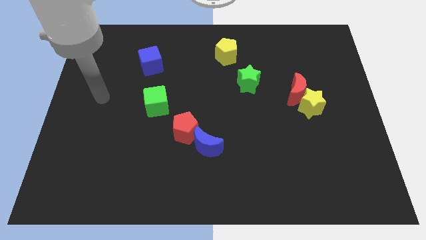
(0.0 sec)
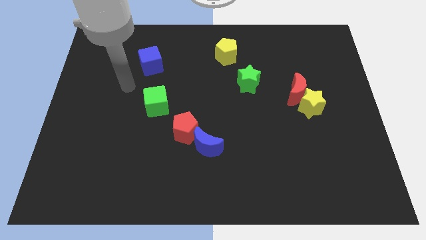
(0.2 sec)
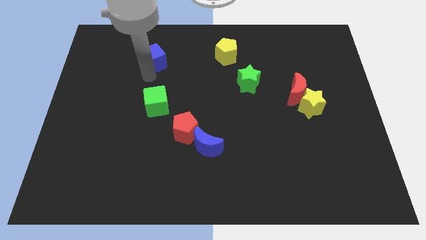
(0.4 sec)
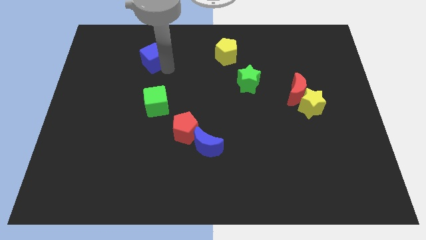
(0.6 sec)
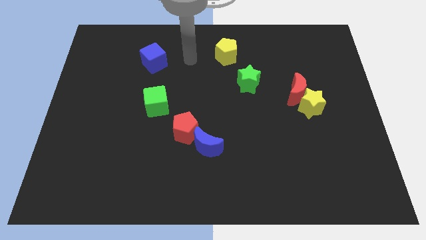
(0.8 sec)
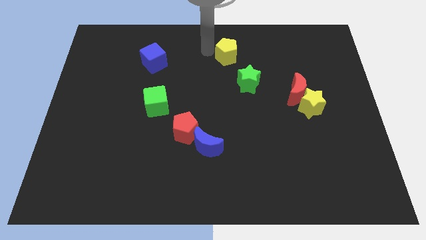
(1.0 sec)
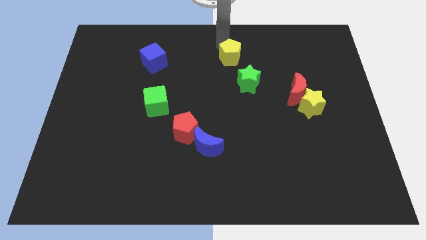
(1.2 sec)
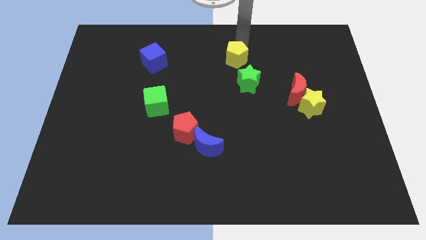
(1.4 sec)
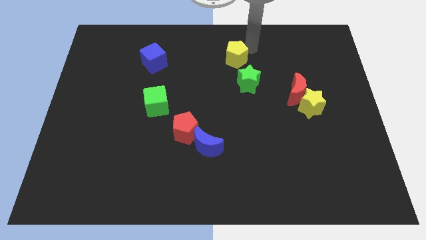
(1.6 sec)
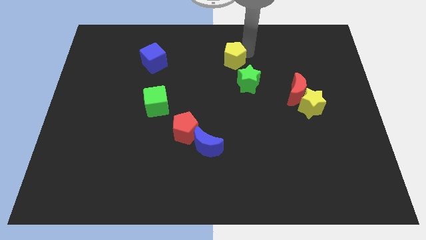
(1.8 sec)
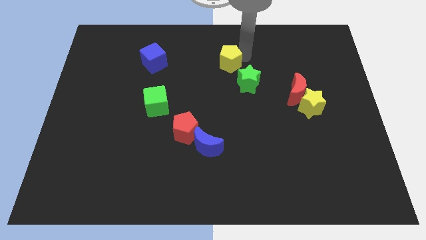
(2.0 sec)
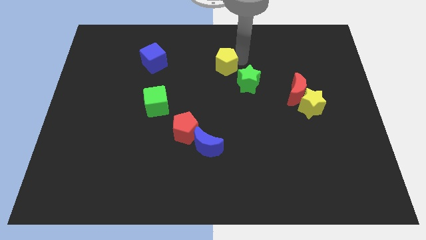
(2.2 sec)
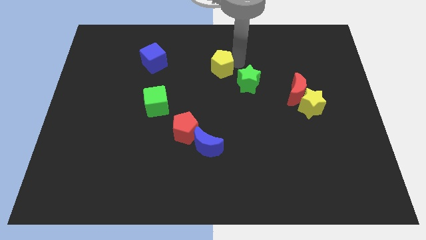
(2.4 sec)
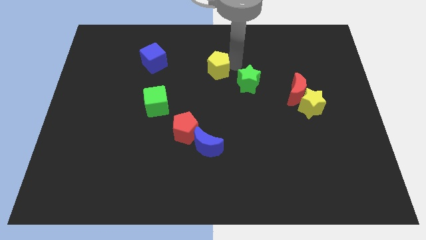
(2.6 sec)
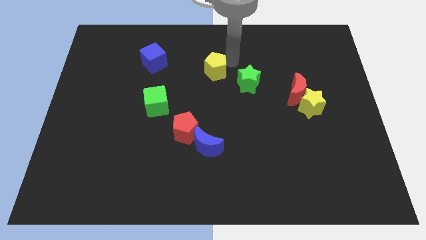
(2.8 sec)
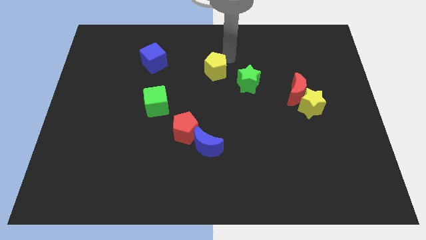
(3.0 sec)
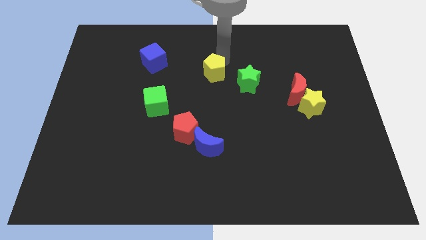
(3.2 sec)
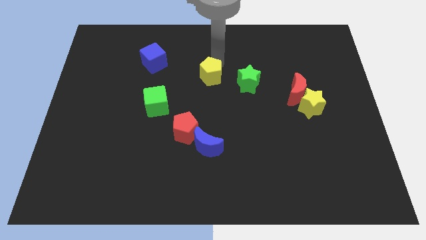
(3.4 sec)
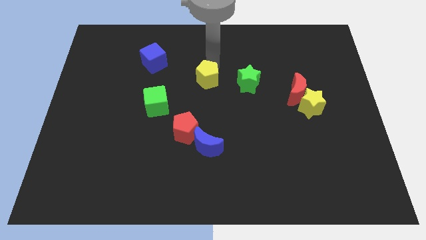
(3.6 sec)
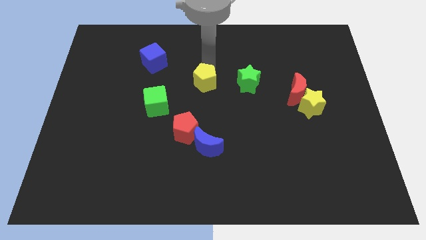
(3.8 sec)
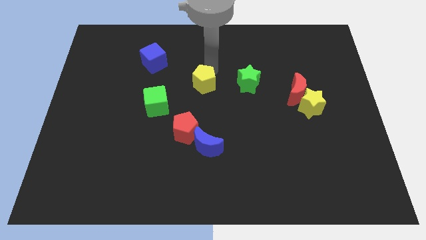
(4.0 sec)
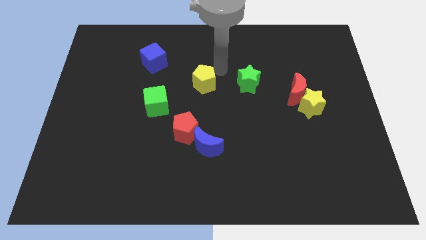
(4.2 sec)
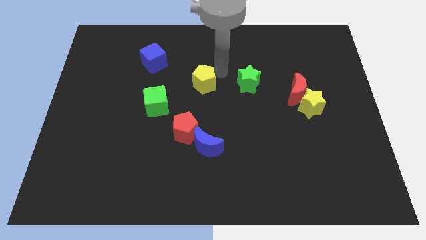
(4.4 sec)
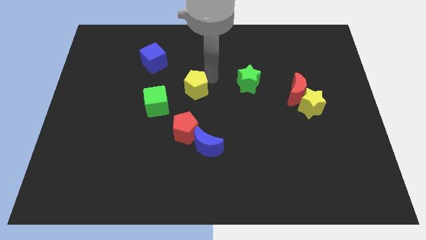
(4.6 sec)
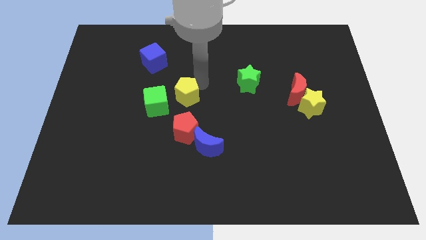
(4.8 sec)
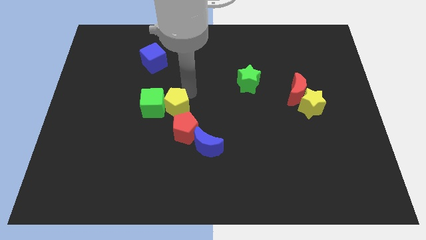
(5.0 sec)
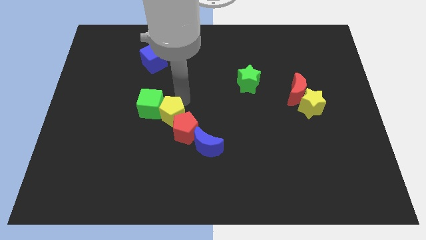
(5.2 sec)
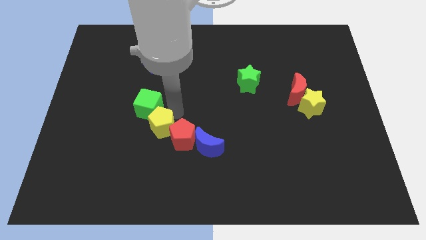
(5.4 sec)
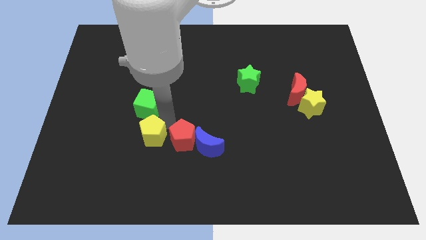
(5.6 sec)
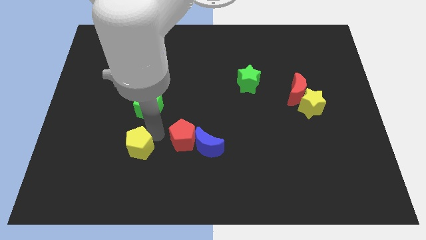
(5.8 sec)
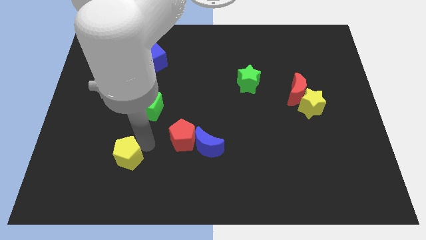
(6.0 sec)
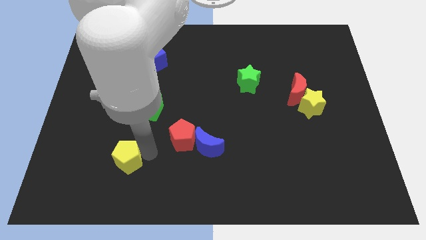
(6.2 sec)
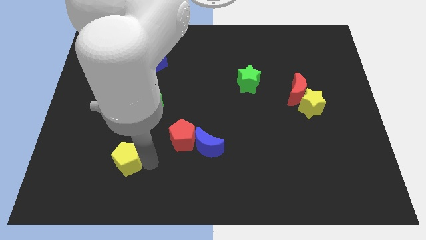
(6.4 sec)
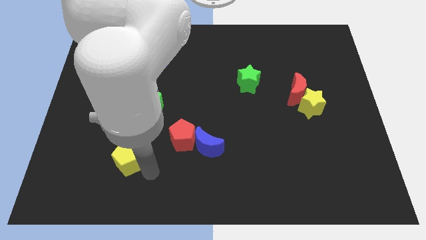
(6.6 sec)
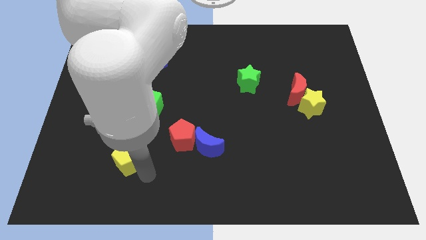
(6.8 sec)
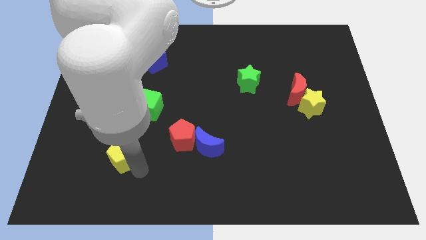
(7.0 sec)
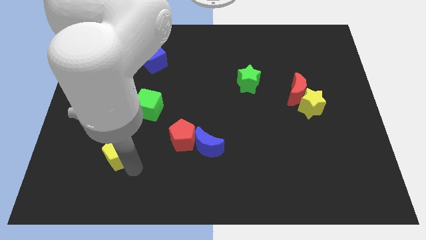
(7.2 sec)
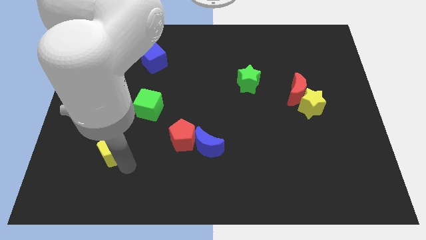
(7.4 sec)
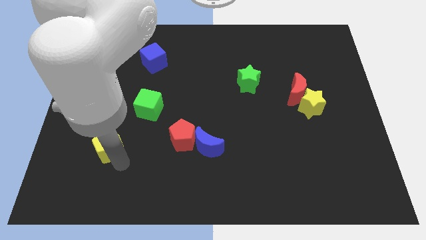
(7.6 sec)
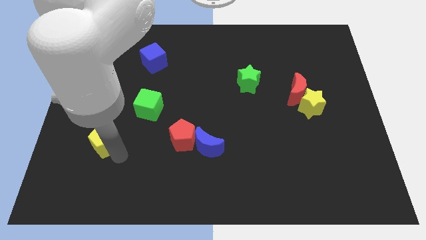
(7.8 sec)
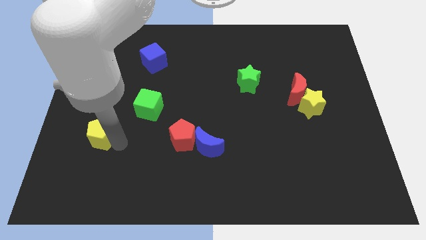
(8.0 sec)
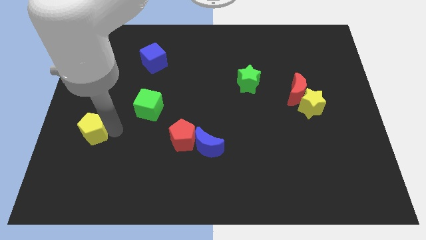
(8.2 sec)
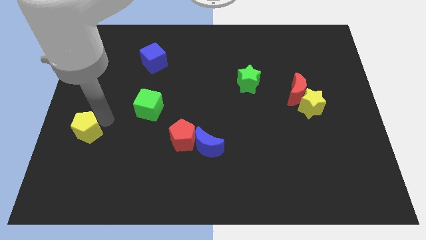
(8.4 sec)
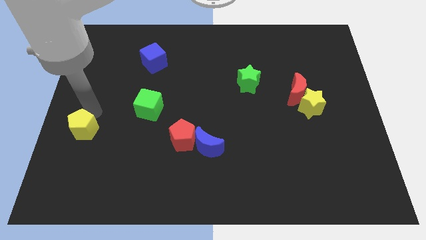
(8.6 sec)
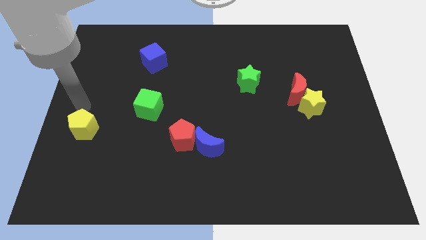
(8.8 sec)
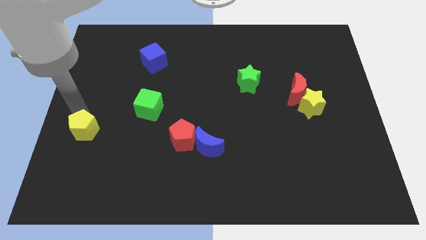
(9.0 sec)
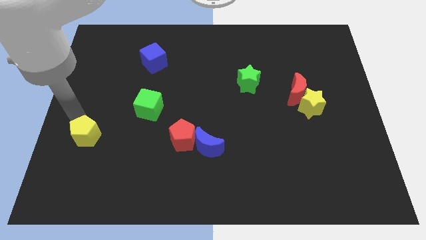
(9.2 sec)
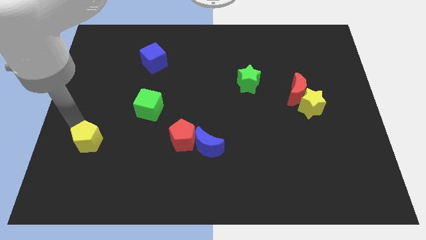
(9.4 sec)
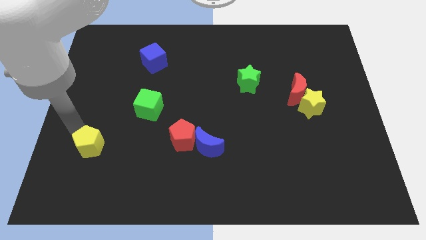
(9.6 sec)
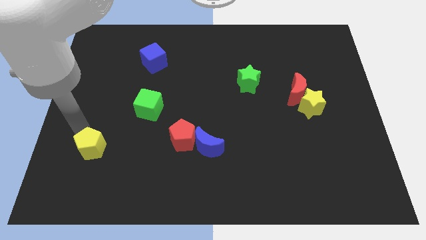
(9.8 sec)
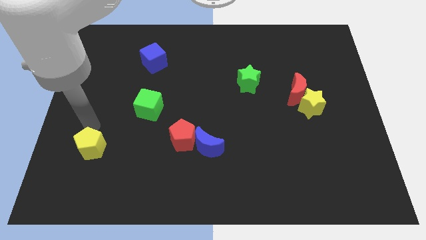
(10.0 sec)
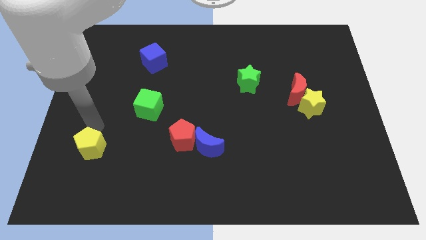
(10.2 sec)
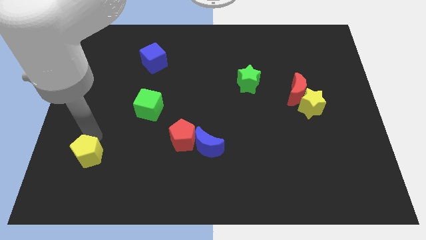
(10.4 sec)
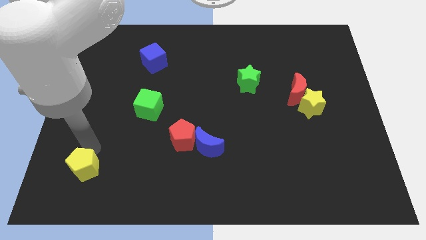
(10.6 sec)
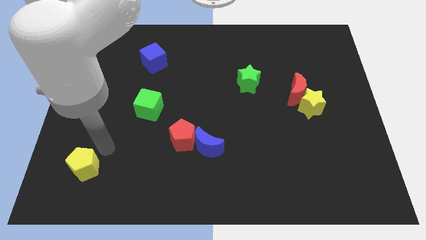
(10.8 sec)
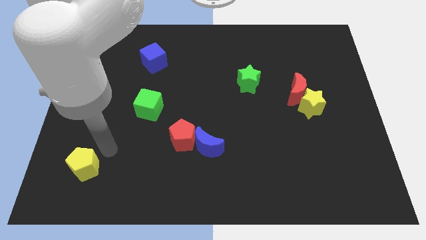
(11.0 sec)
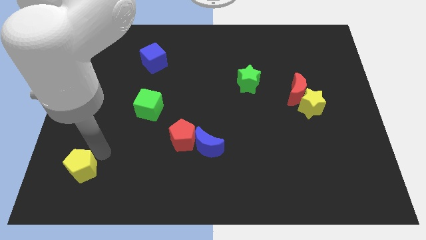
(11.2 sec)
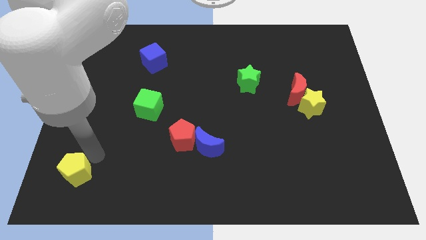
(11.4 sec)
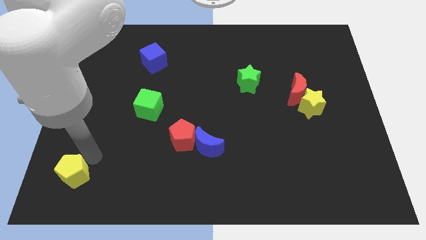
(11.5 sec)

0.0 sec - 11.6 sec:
move the yellow pentagon to the lower left corner
